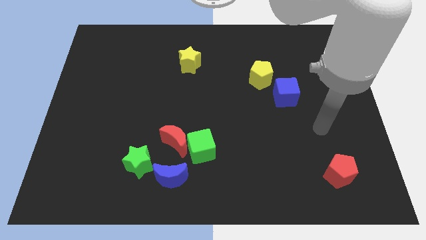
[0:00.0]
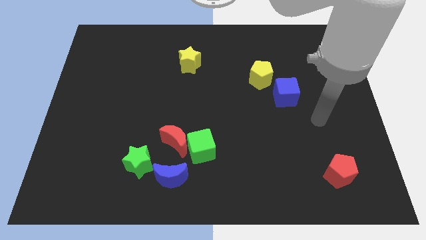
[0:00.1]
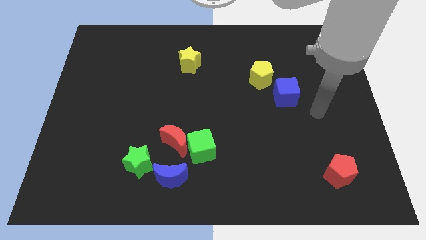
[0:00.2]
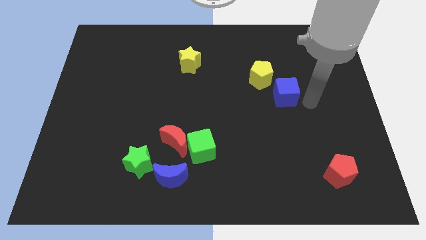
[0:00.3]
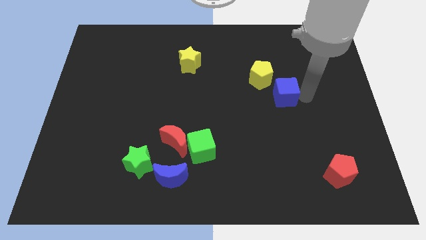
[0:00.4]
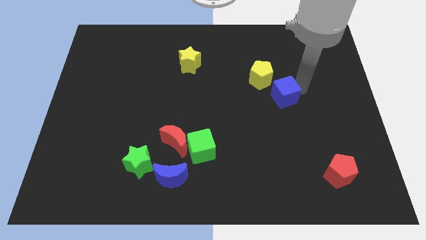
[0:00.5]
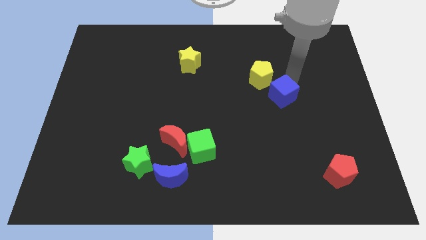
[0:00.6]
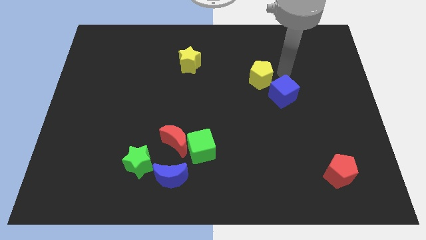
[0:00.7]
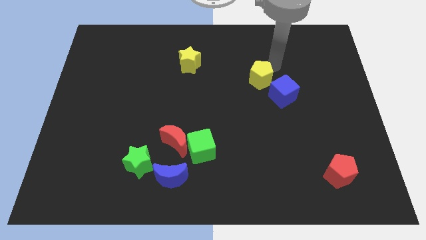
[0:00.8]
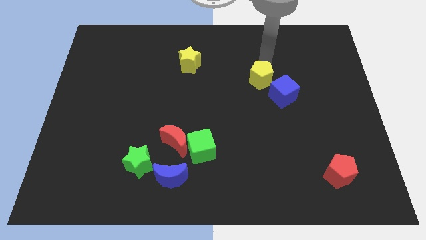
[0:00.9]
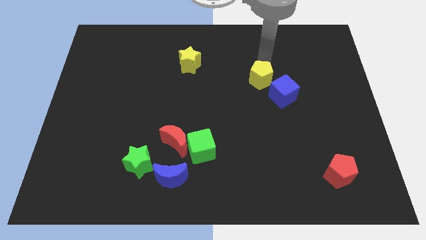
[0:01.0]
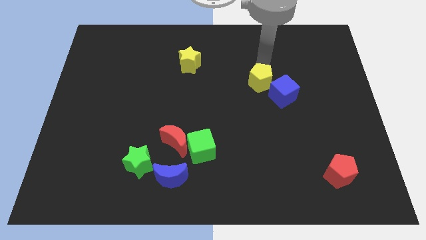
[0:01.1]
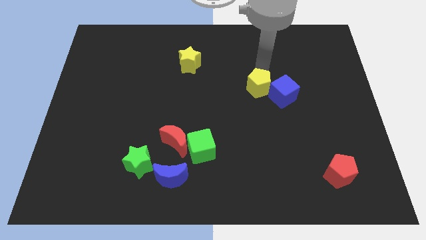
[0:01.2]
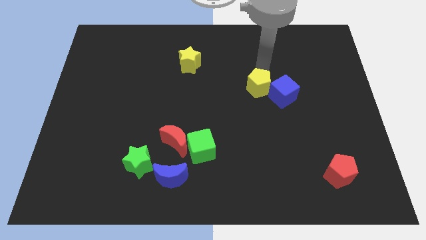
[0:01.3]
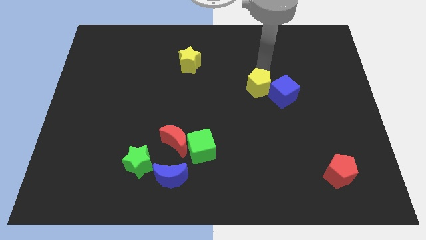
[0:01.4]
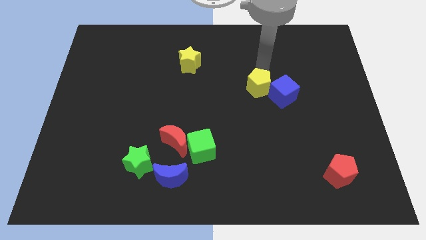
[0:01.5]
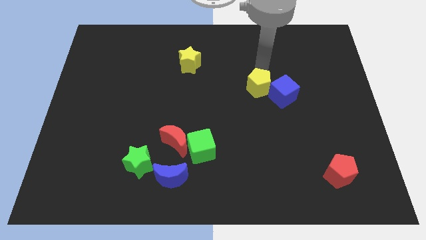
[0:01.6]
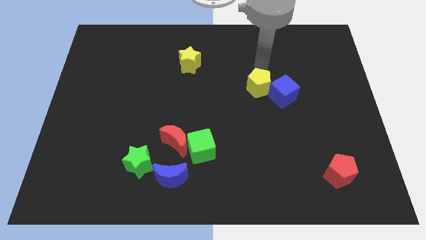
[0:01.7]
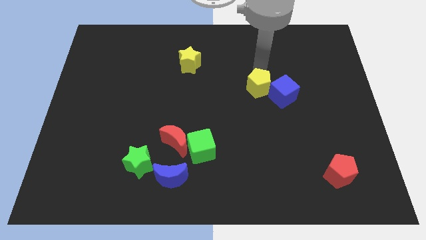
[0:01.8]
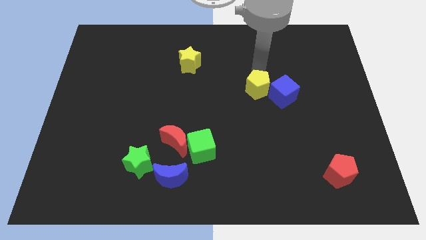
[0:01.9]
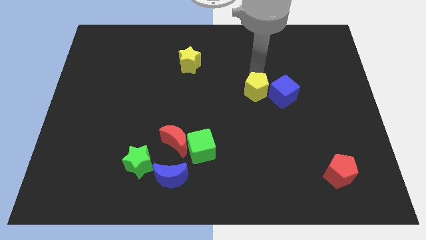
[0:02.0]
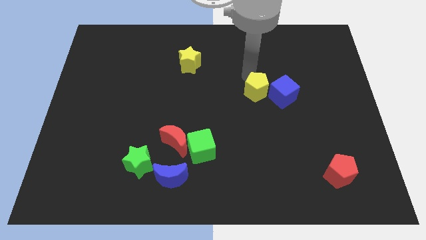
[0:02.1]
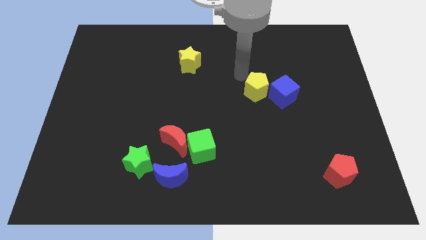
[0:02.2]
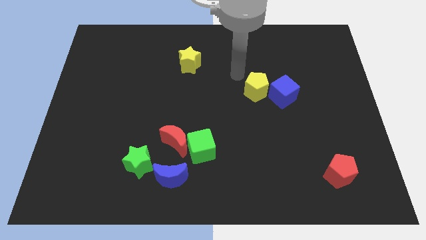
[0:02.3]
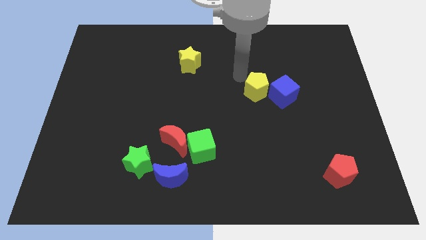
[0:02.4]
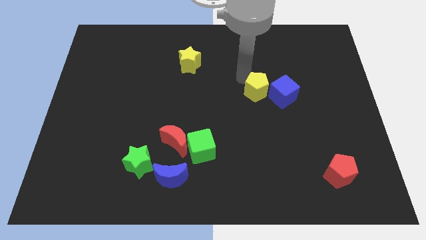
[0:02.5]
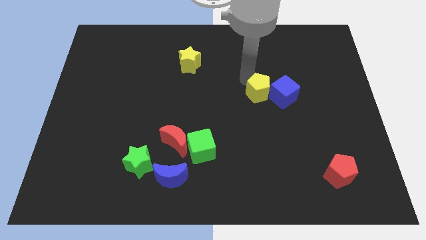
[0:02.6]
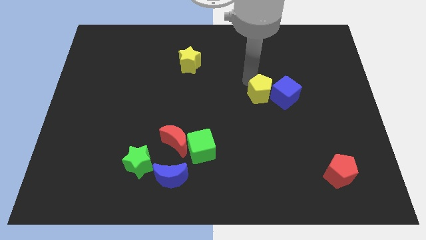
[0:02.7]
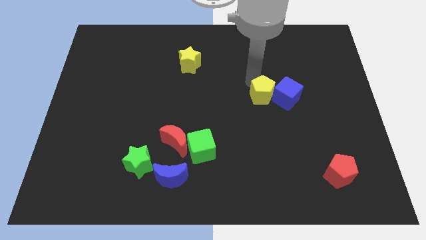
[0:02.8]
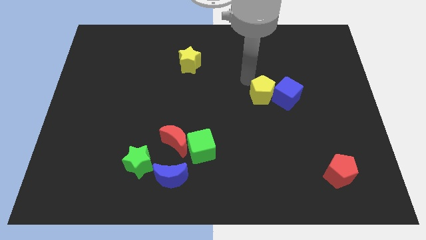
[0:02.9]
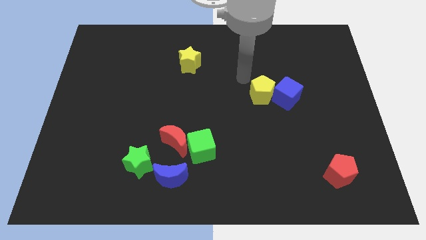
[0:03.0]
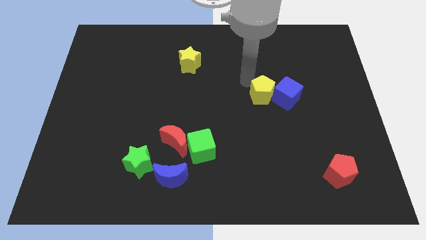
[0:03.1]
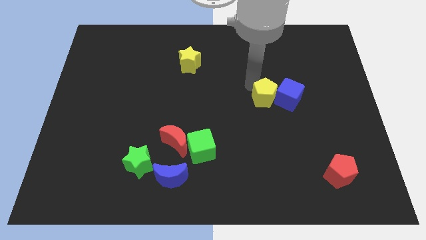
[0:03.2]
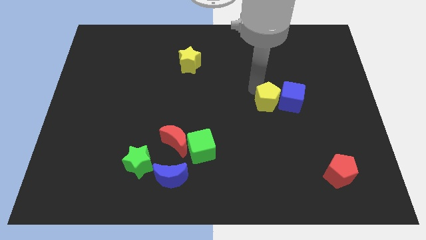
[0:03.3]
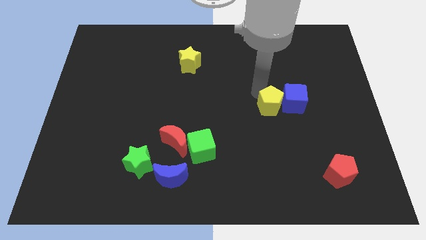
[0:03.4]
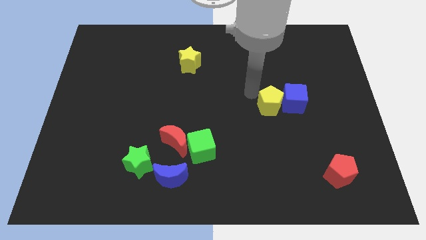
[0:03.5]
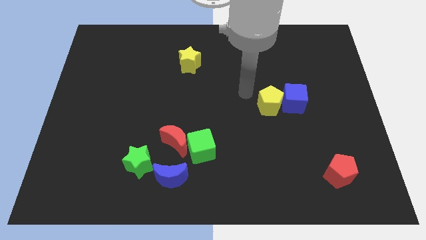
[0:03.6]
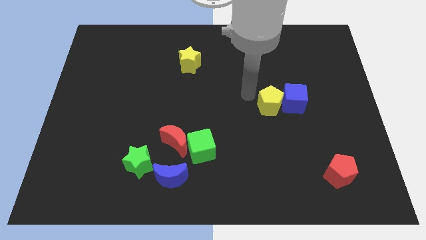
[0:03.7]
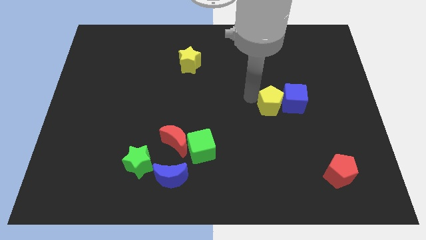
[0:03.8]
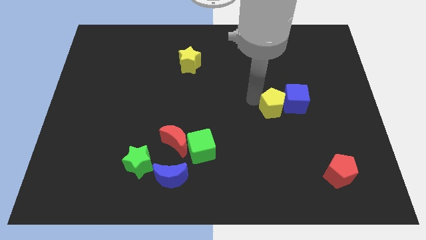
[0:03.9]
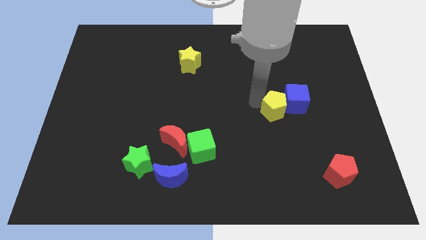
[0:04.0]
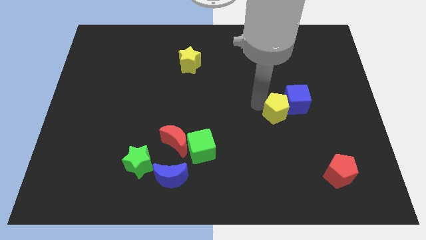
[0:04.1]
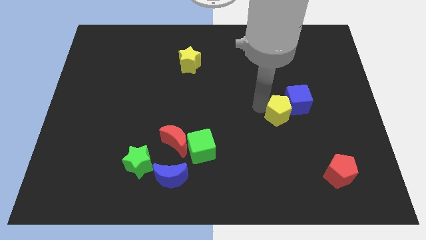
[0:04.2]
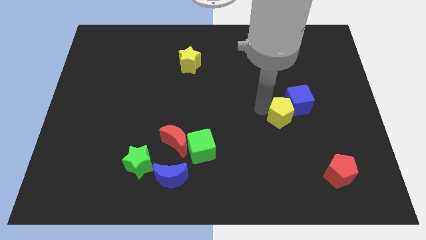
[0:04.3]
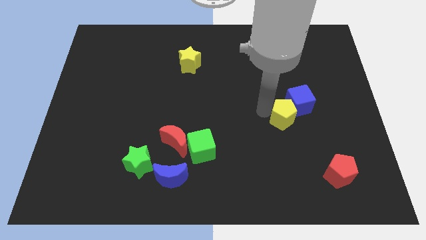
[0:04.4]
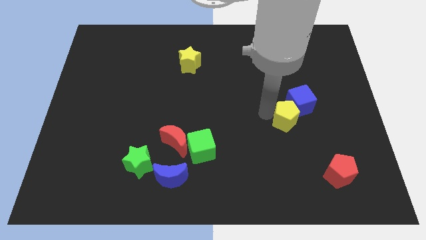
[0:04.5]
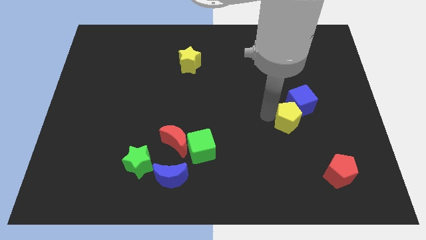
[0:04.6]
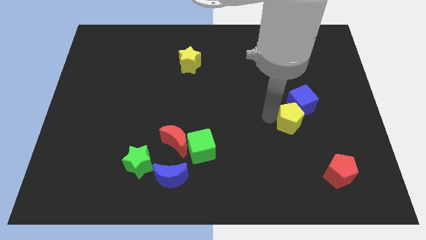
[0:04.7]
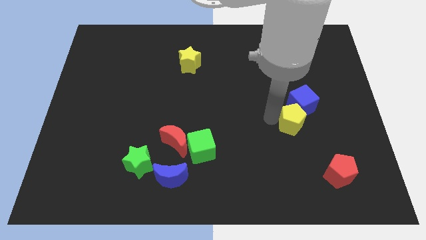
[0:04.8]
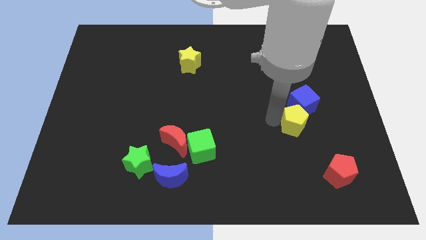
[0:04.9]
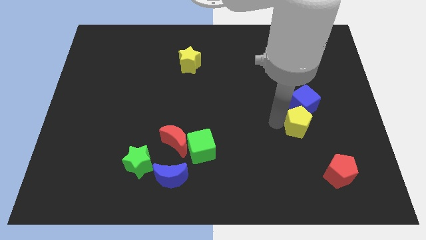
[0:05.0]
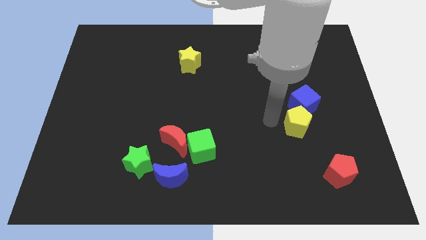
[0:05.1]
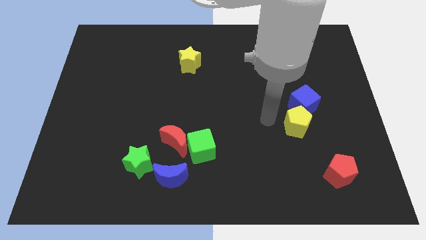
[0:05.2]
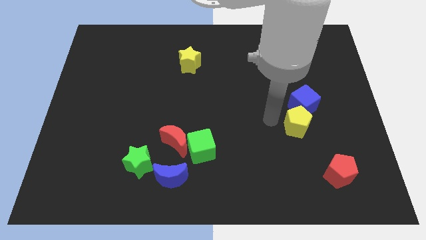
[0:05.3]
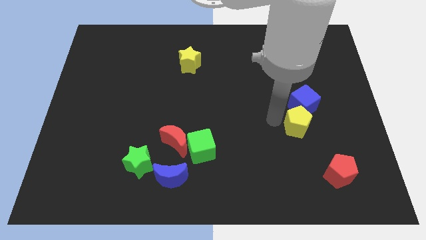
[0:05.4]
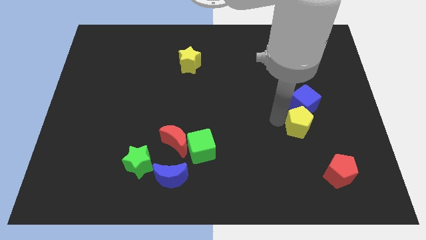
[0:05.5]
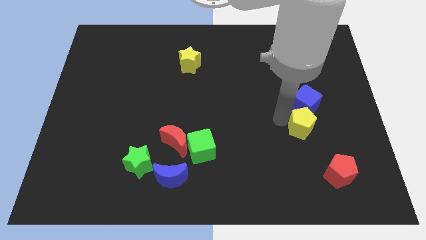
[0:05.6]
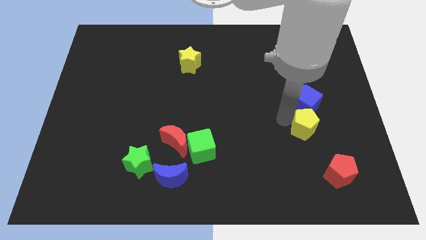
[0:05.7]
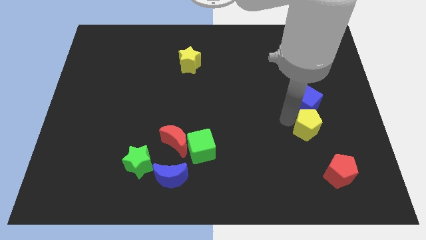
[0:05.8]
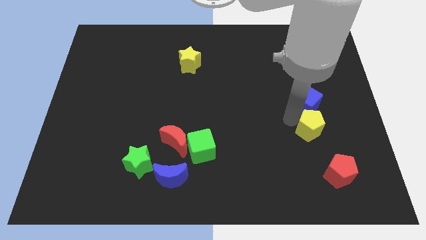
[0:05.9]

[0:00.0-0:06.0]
push the yellow pentagon to the top side of the red pentagon

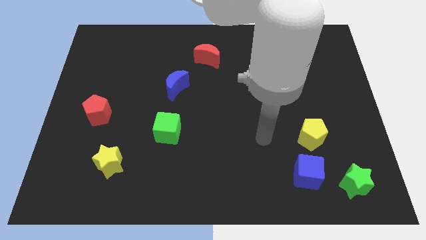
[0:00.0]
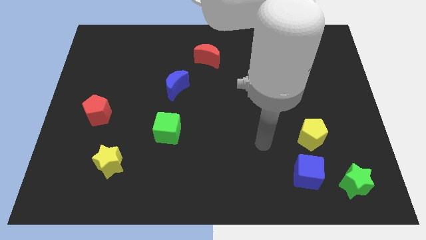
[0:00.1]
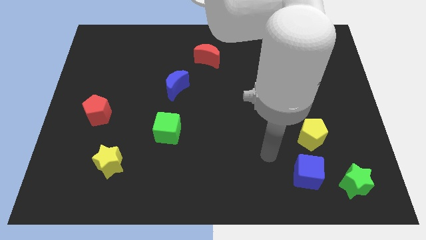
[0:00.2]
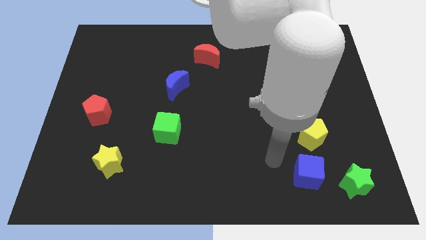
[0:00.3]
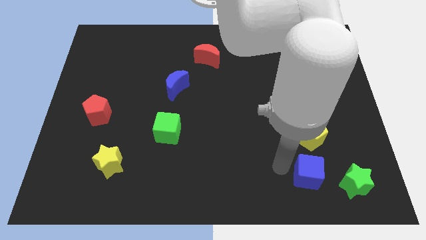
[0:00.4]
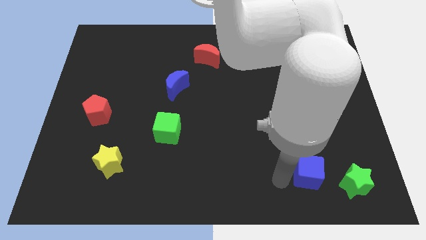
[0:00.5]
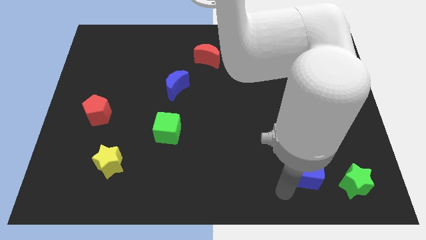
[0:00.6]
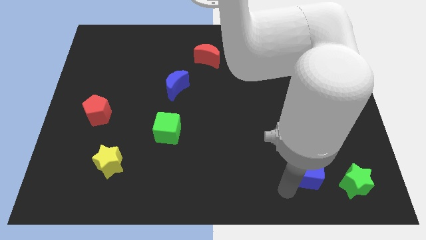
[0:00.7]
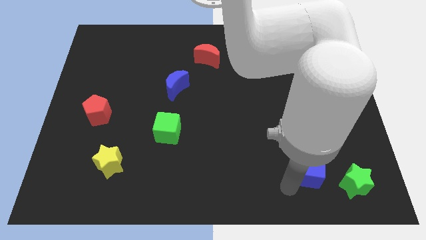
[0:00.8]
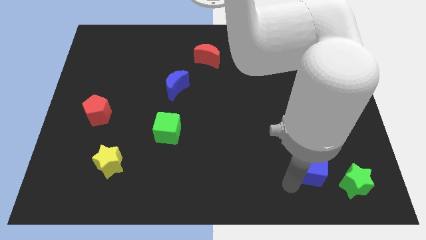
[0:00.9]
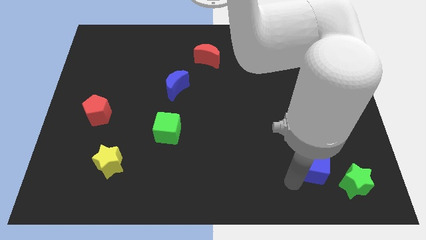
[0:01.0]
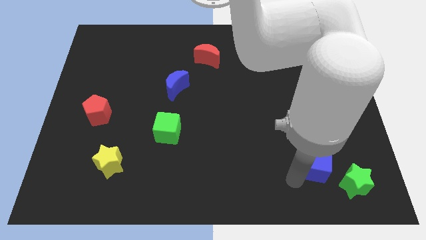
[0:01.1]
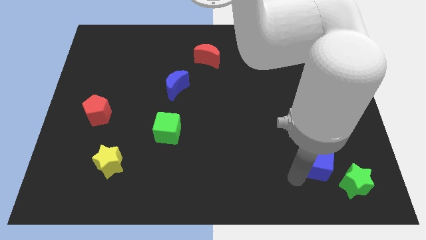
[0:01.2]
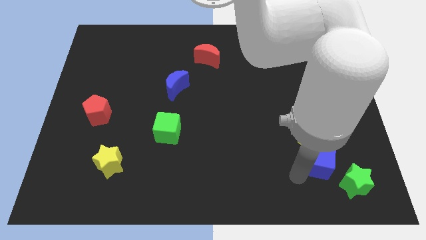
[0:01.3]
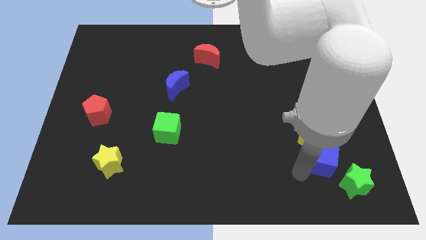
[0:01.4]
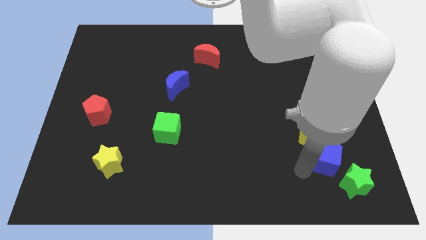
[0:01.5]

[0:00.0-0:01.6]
put the blue cube to the top of the green star
